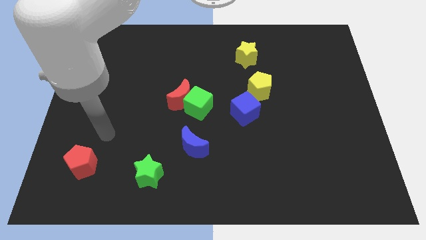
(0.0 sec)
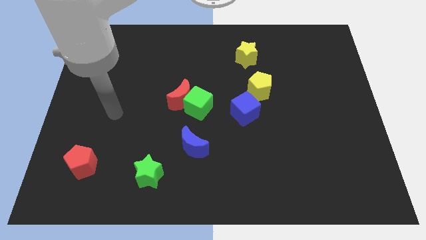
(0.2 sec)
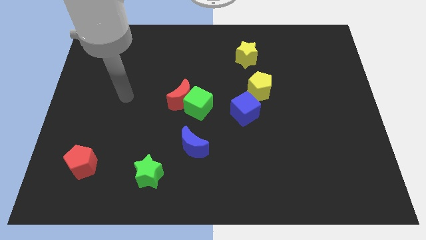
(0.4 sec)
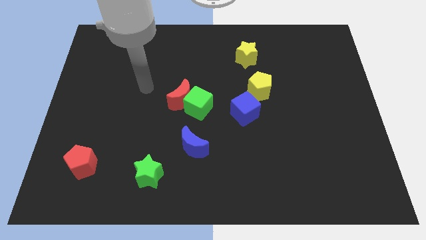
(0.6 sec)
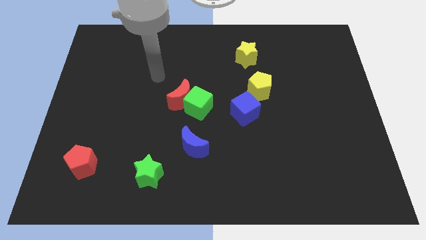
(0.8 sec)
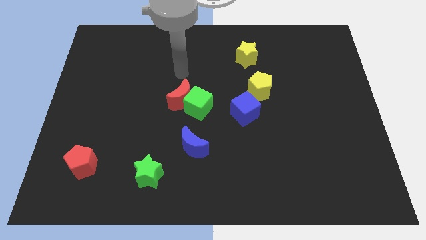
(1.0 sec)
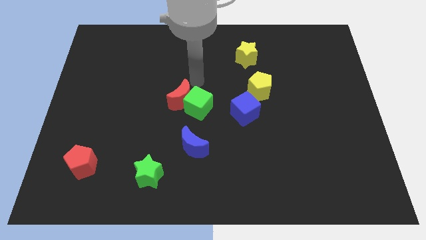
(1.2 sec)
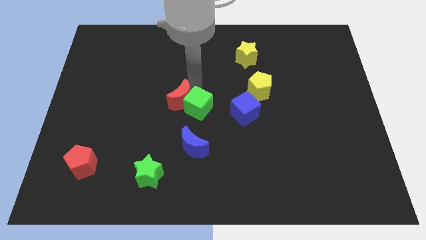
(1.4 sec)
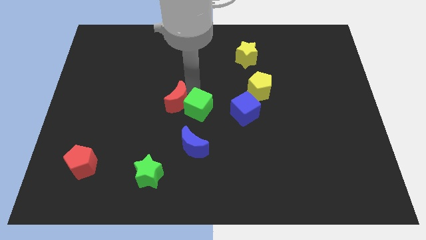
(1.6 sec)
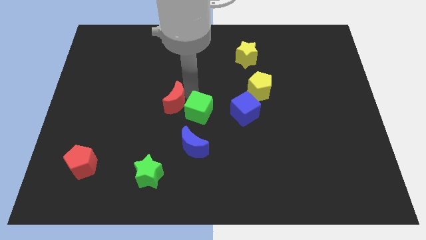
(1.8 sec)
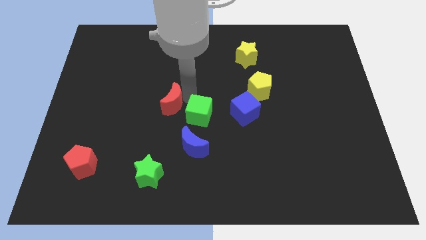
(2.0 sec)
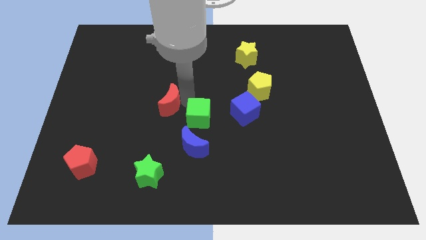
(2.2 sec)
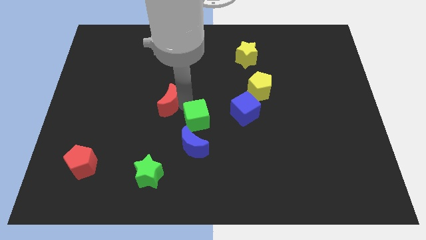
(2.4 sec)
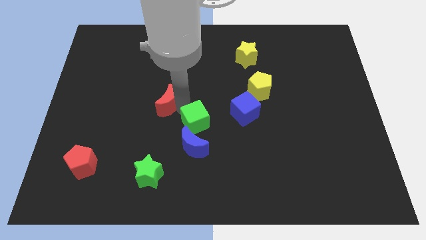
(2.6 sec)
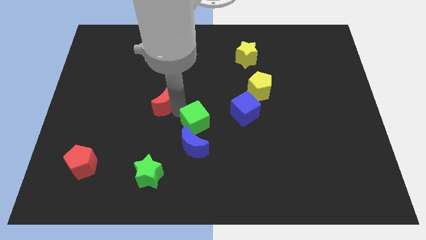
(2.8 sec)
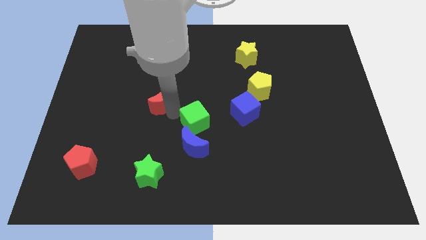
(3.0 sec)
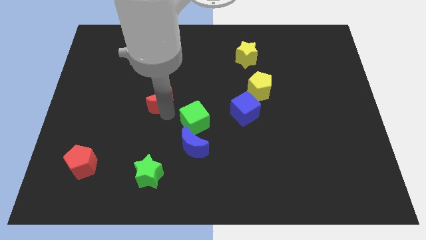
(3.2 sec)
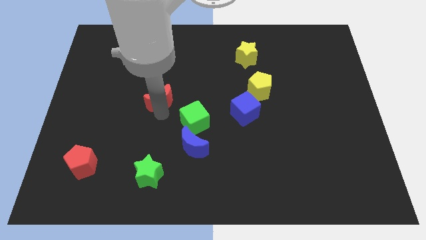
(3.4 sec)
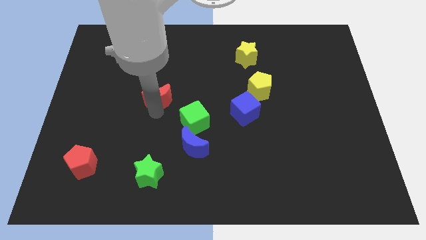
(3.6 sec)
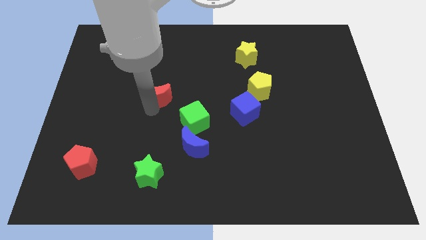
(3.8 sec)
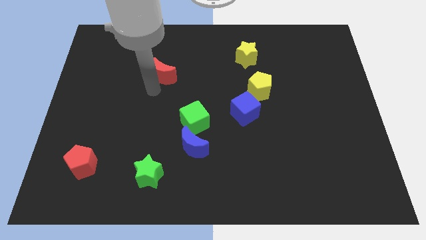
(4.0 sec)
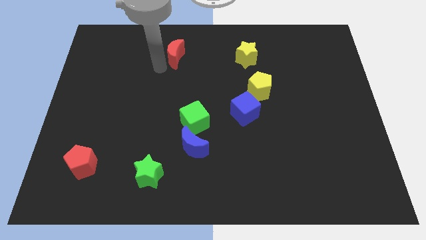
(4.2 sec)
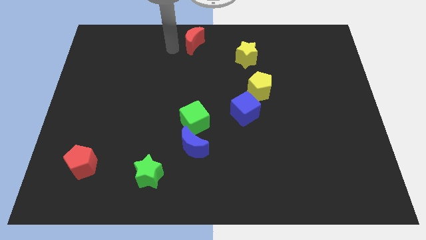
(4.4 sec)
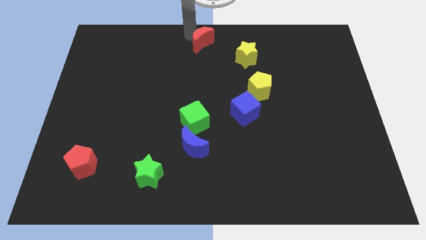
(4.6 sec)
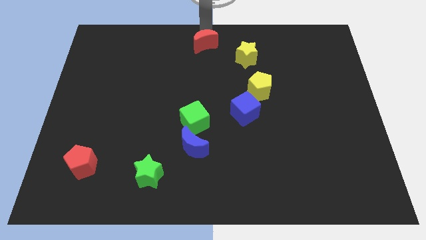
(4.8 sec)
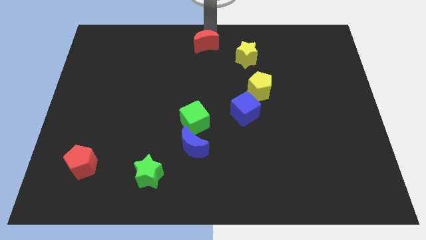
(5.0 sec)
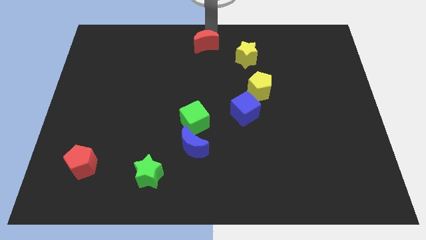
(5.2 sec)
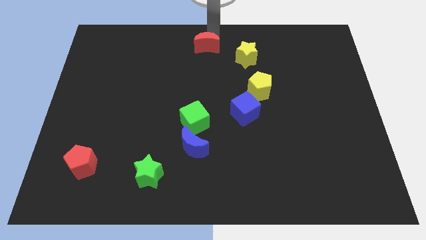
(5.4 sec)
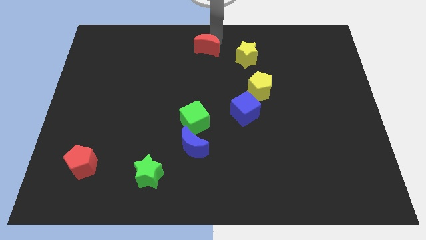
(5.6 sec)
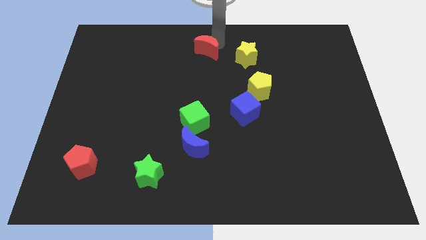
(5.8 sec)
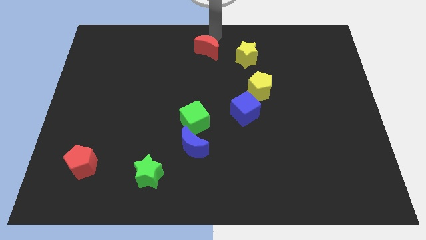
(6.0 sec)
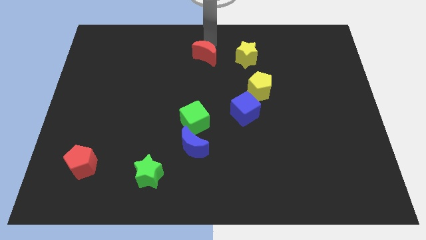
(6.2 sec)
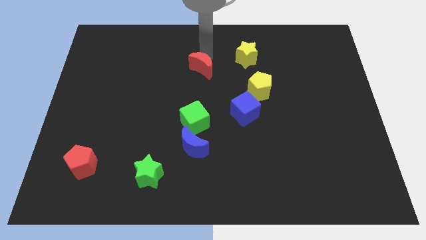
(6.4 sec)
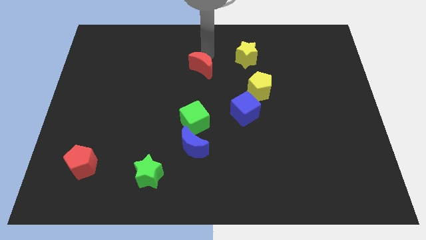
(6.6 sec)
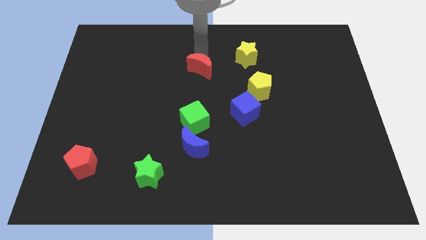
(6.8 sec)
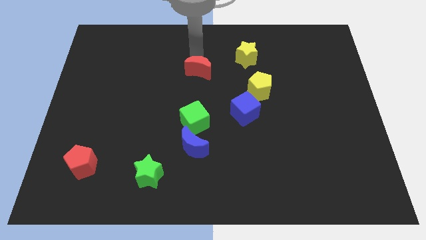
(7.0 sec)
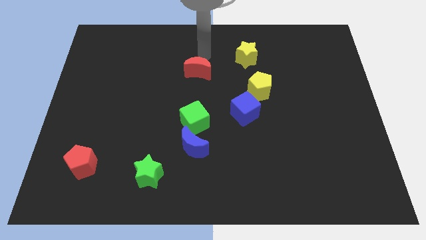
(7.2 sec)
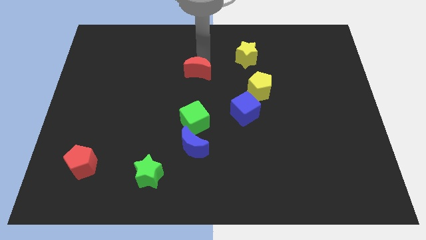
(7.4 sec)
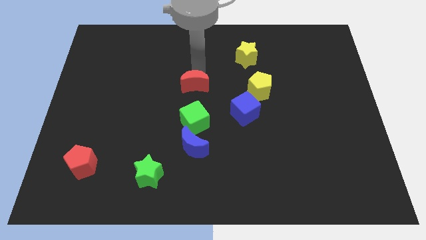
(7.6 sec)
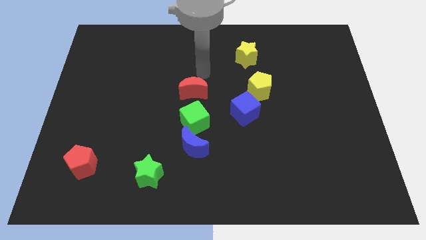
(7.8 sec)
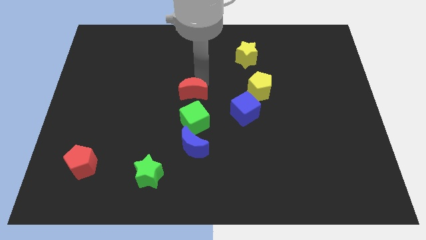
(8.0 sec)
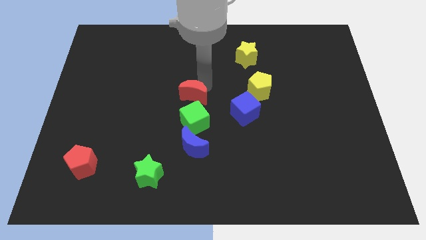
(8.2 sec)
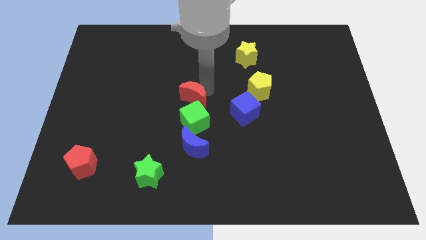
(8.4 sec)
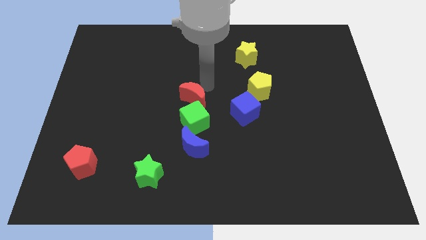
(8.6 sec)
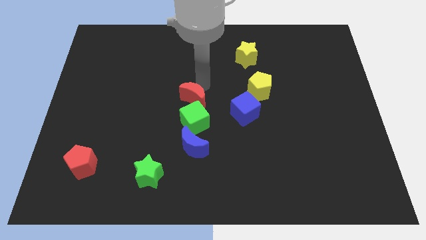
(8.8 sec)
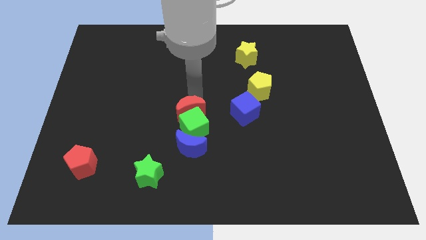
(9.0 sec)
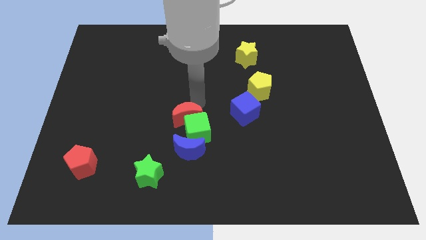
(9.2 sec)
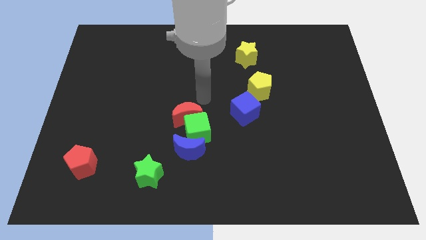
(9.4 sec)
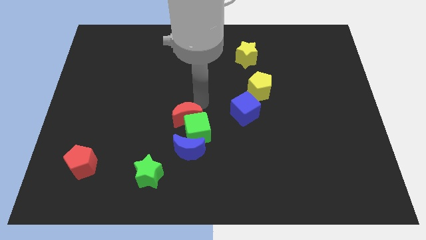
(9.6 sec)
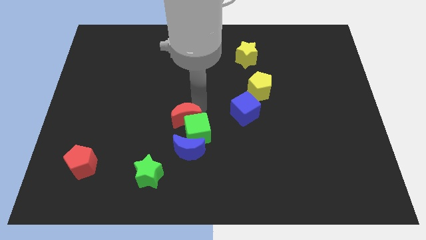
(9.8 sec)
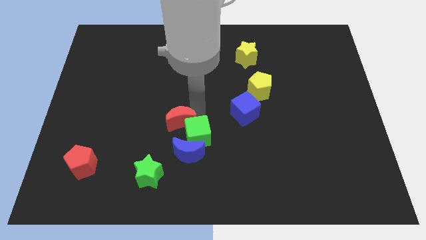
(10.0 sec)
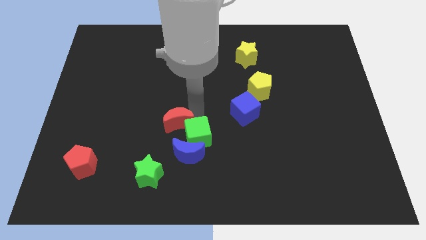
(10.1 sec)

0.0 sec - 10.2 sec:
slide the red moon somewhat down

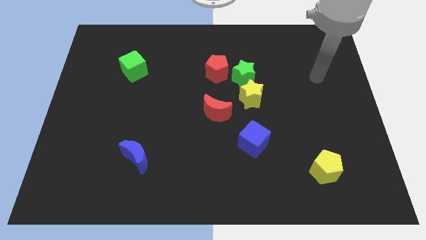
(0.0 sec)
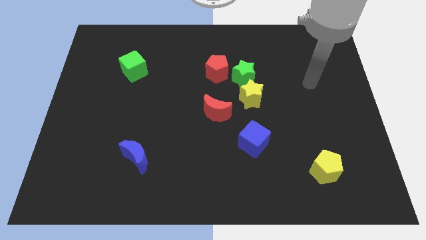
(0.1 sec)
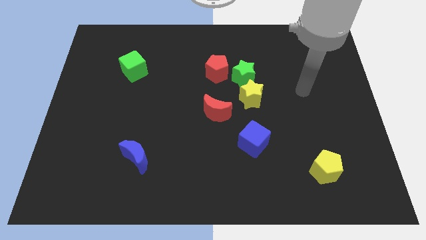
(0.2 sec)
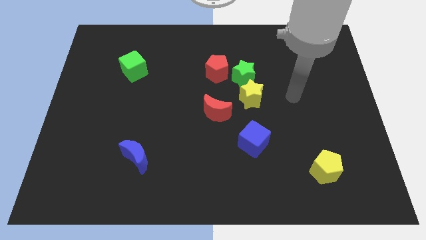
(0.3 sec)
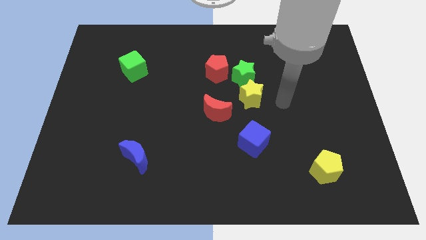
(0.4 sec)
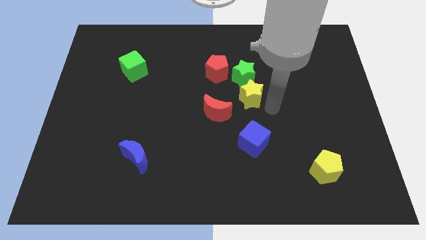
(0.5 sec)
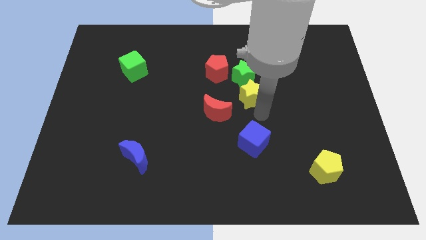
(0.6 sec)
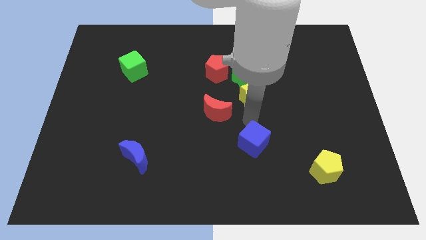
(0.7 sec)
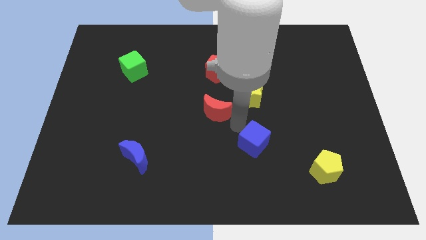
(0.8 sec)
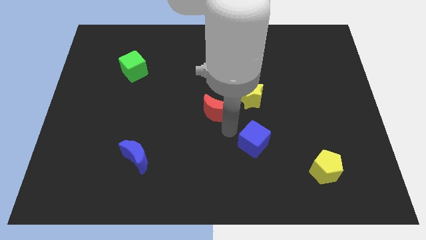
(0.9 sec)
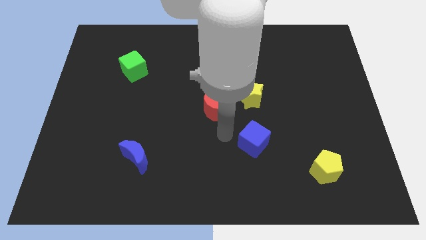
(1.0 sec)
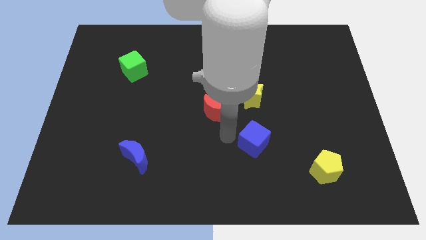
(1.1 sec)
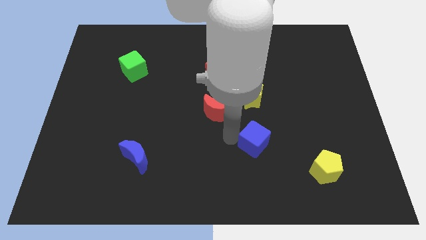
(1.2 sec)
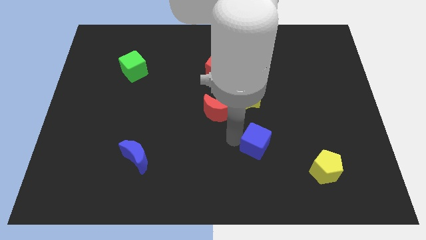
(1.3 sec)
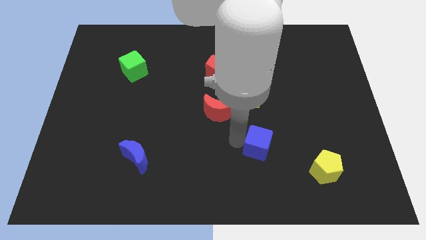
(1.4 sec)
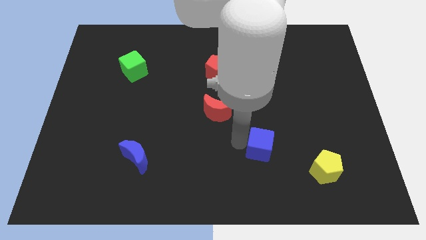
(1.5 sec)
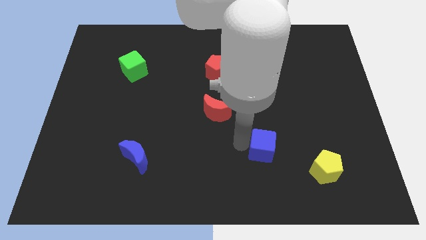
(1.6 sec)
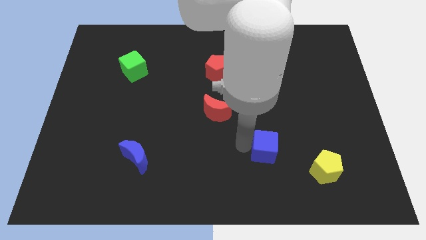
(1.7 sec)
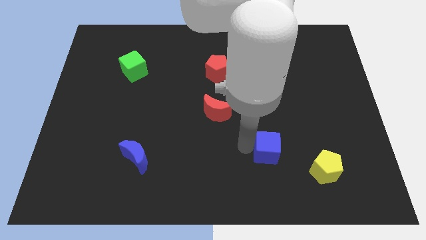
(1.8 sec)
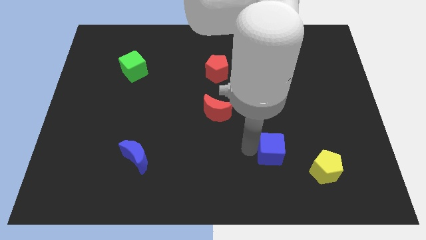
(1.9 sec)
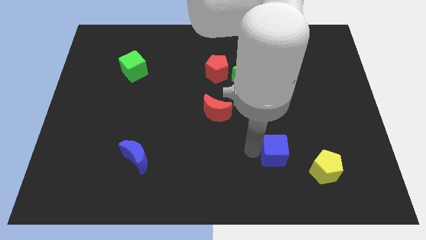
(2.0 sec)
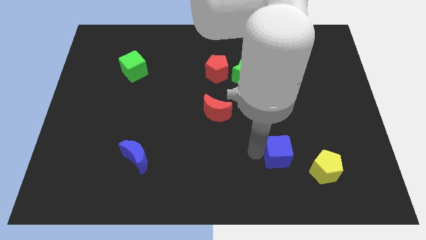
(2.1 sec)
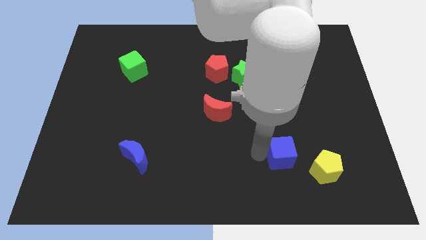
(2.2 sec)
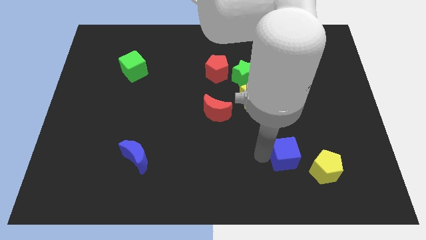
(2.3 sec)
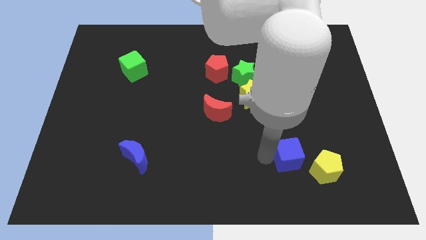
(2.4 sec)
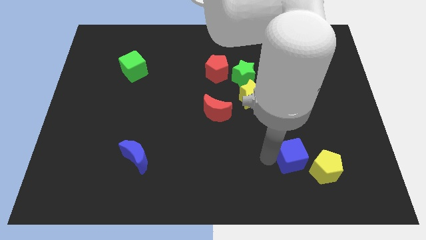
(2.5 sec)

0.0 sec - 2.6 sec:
slide the blue cube right a little bit
